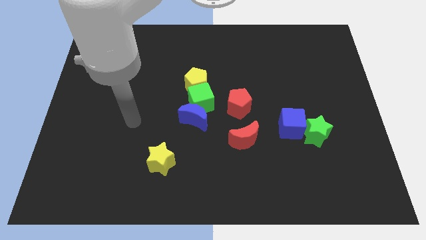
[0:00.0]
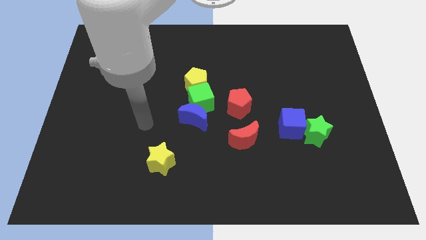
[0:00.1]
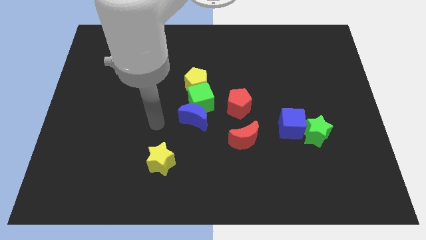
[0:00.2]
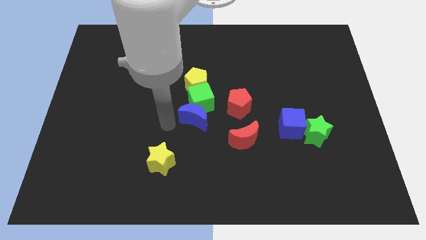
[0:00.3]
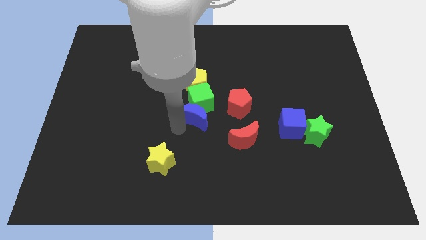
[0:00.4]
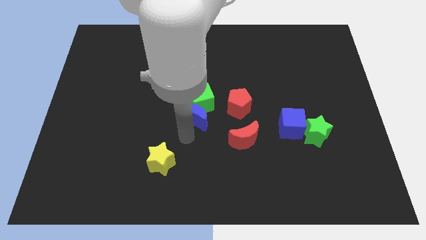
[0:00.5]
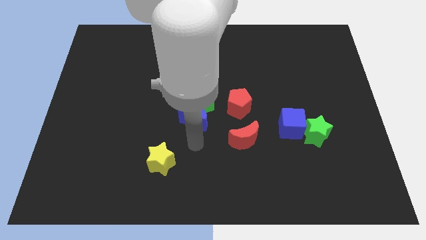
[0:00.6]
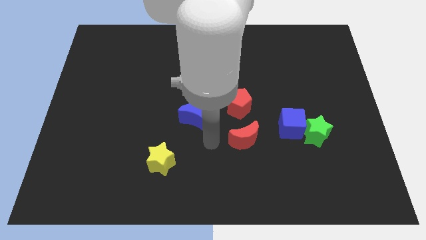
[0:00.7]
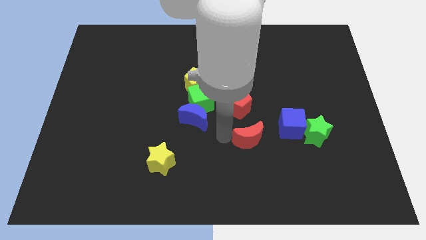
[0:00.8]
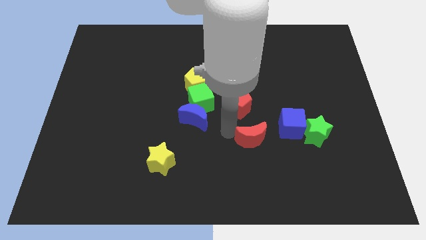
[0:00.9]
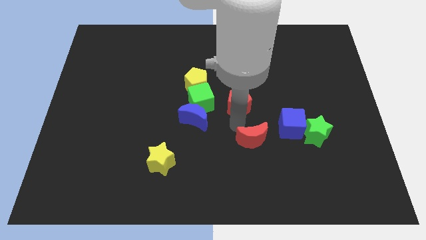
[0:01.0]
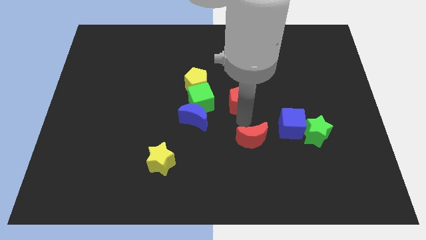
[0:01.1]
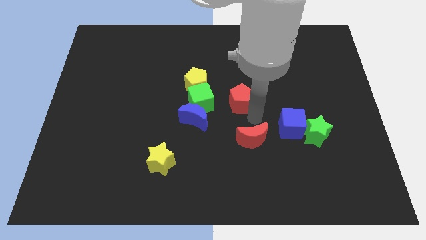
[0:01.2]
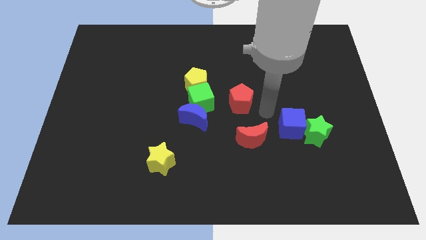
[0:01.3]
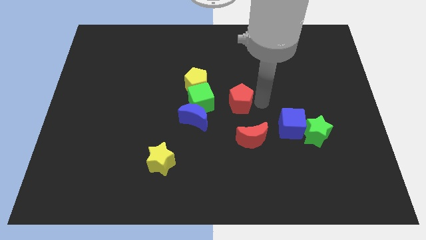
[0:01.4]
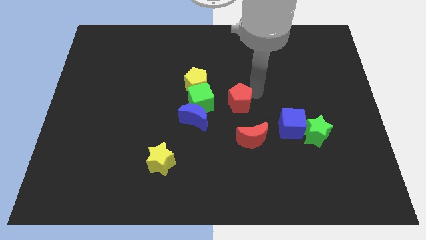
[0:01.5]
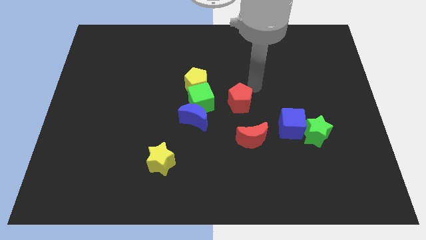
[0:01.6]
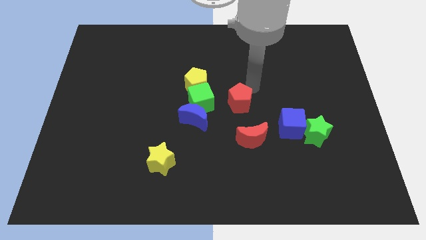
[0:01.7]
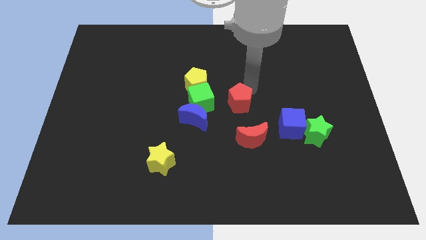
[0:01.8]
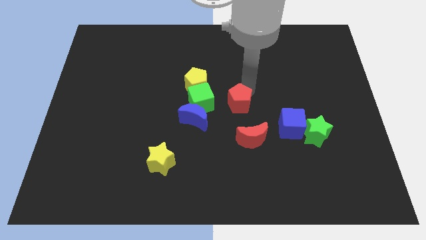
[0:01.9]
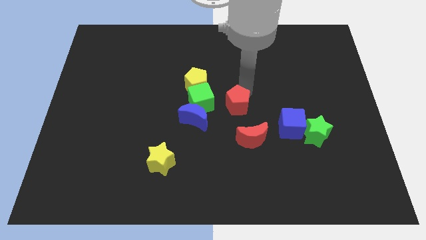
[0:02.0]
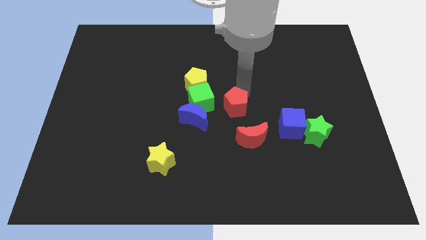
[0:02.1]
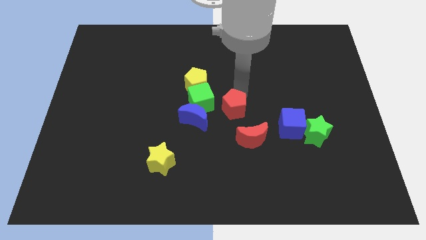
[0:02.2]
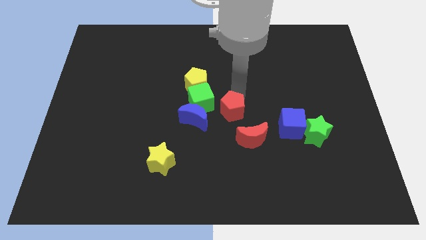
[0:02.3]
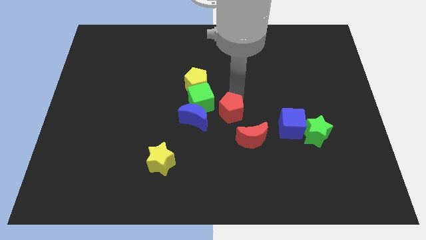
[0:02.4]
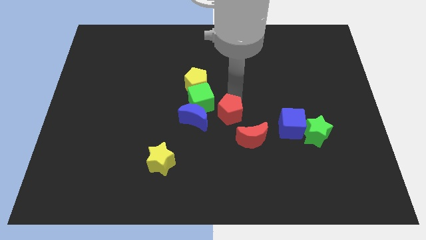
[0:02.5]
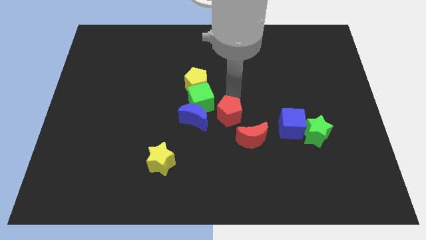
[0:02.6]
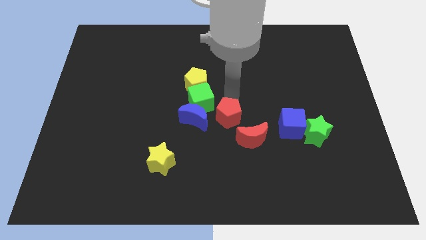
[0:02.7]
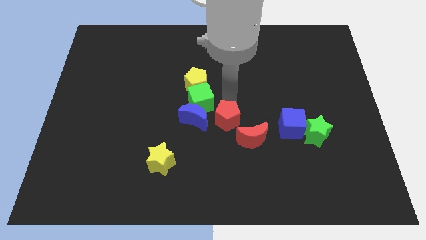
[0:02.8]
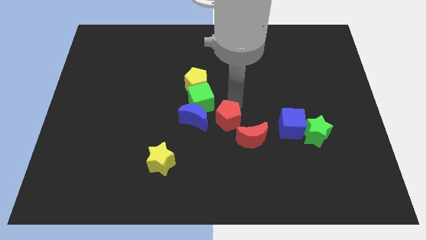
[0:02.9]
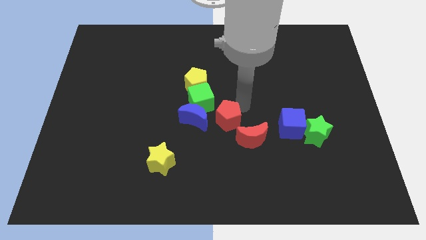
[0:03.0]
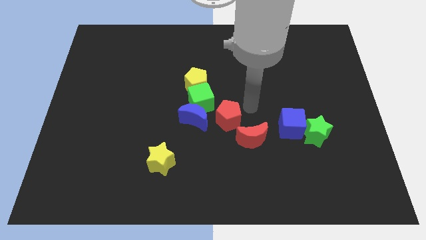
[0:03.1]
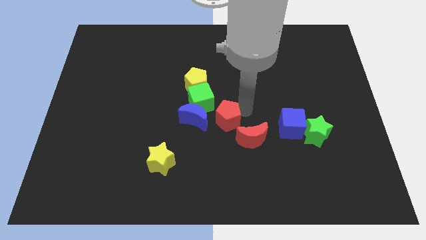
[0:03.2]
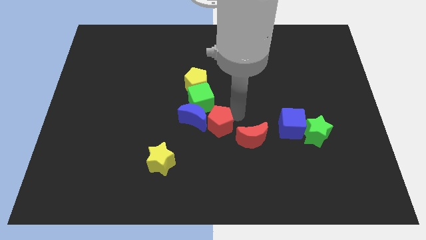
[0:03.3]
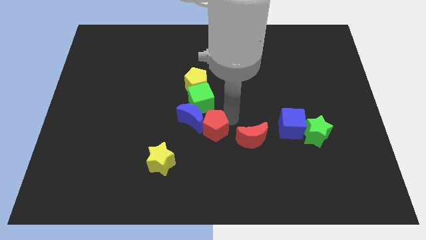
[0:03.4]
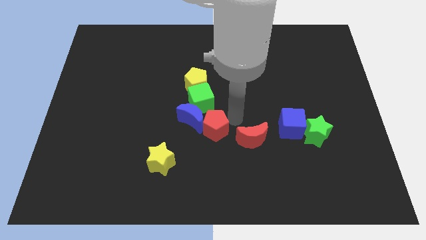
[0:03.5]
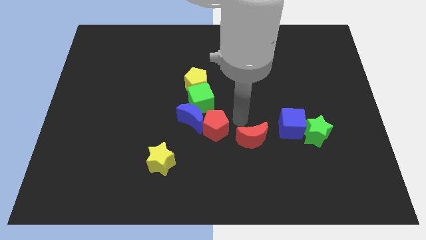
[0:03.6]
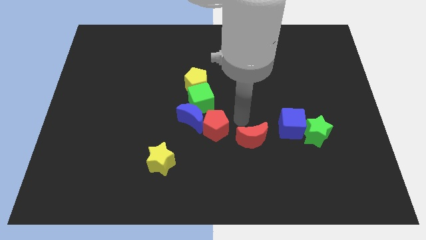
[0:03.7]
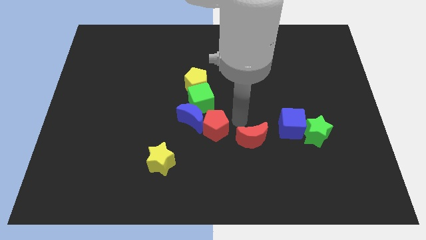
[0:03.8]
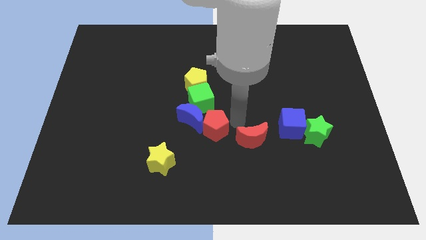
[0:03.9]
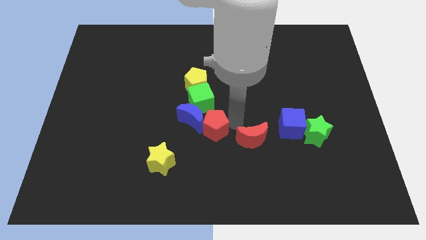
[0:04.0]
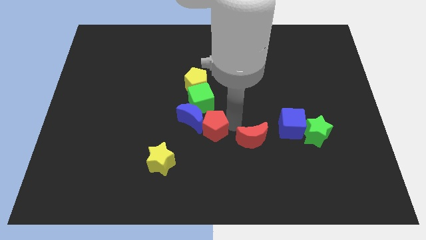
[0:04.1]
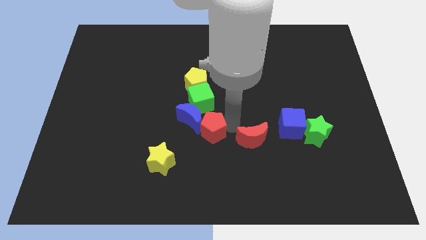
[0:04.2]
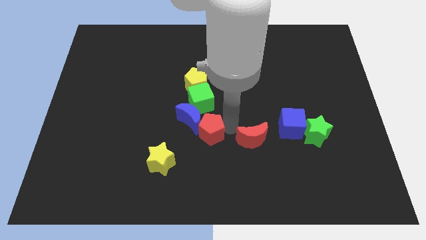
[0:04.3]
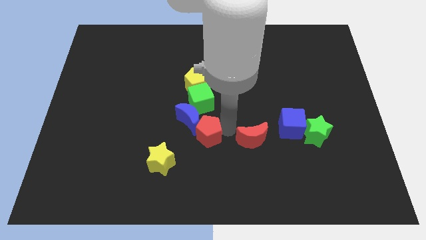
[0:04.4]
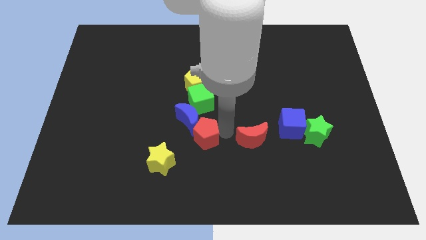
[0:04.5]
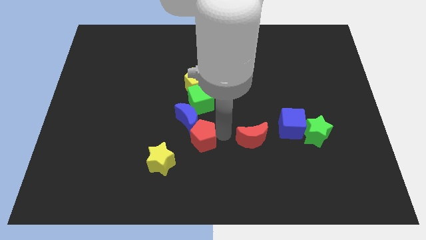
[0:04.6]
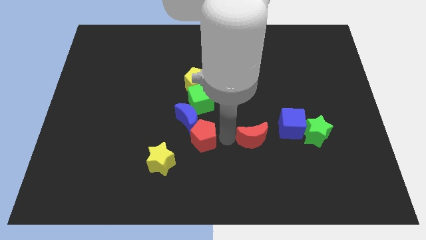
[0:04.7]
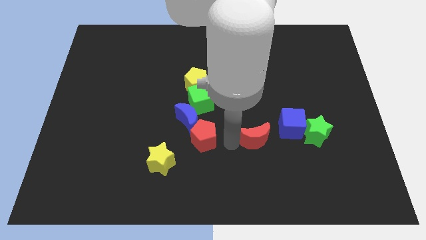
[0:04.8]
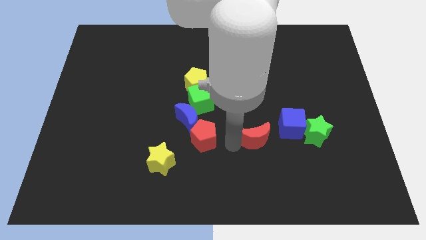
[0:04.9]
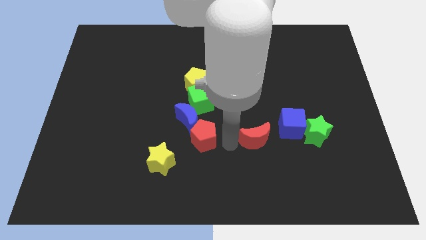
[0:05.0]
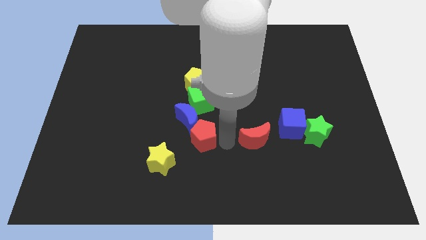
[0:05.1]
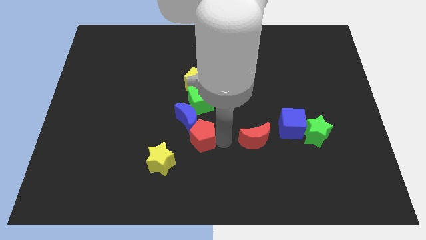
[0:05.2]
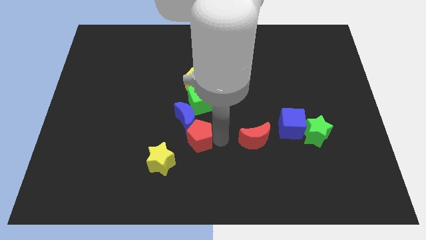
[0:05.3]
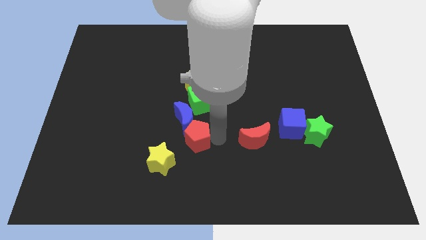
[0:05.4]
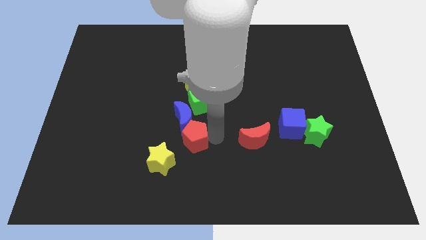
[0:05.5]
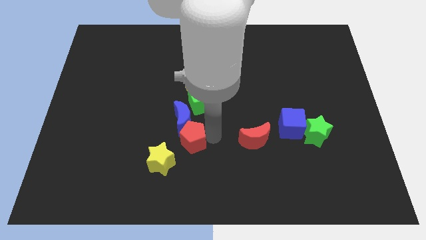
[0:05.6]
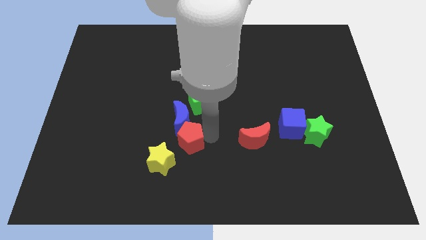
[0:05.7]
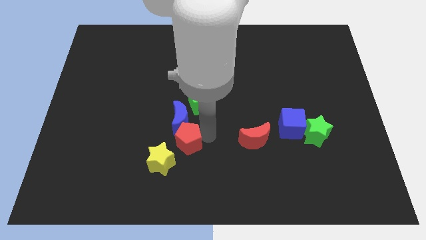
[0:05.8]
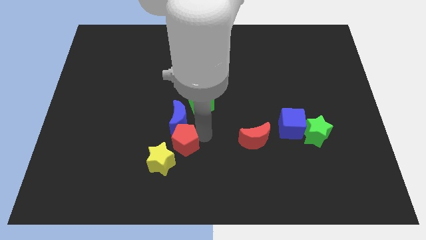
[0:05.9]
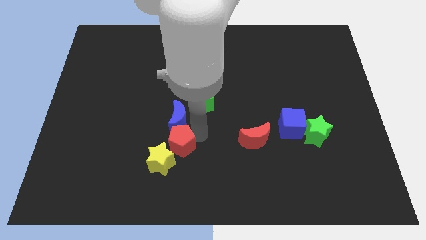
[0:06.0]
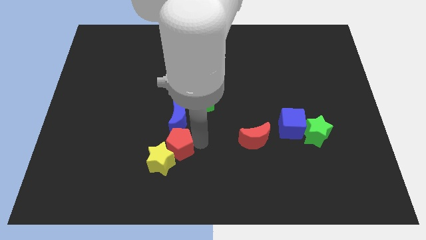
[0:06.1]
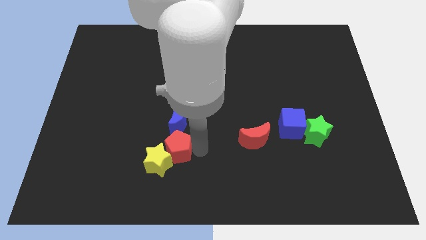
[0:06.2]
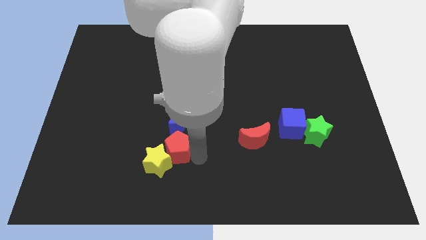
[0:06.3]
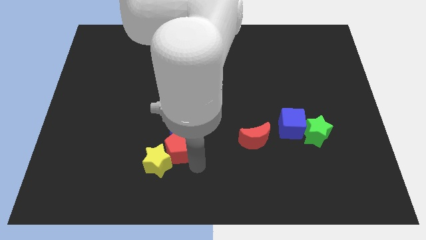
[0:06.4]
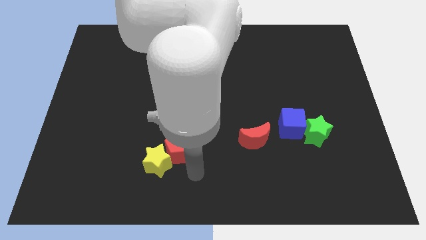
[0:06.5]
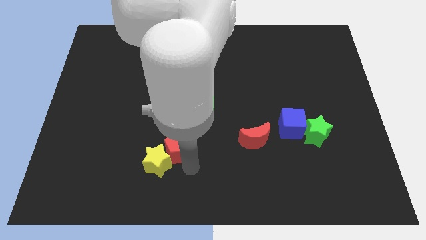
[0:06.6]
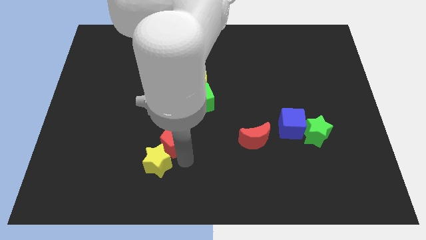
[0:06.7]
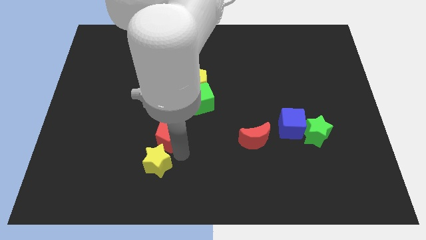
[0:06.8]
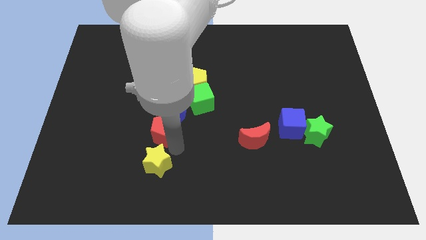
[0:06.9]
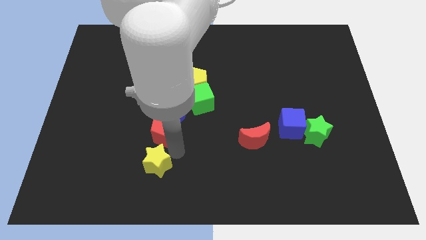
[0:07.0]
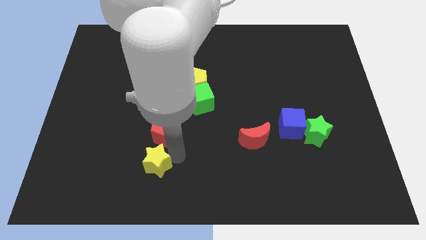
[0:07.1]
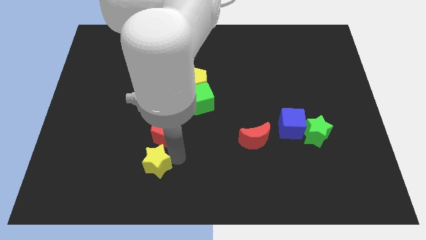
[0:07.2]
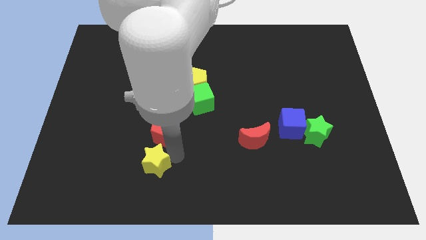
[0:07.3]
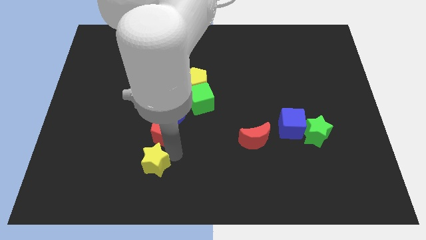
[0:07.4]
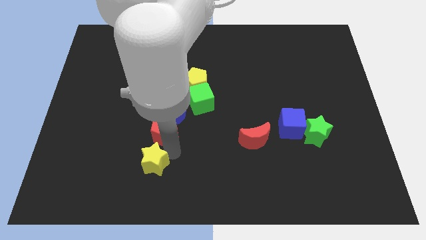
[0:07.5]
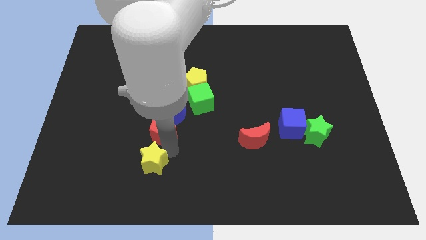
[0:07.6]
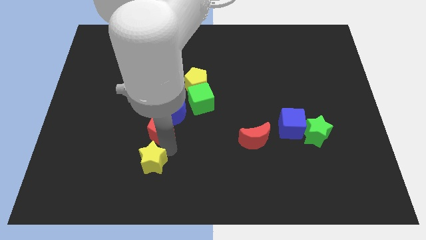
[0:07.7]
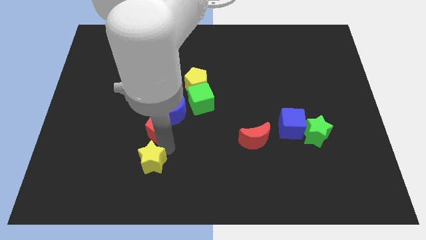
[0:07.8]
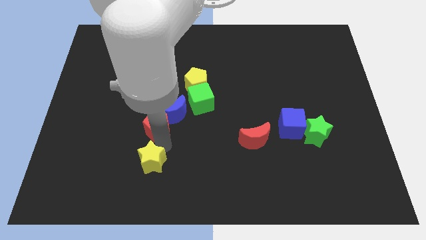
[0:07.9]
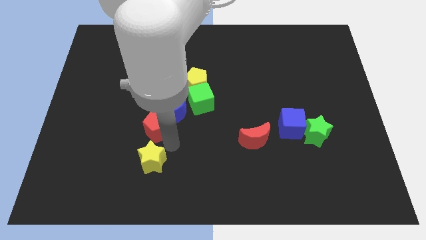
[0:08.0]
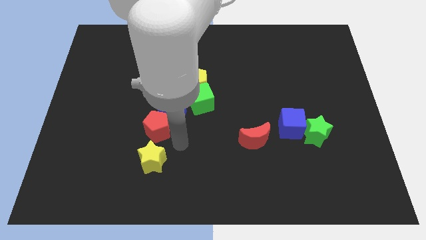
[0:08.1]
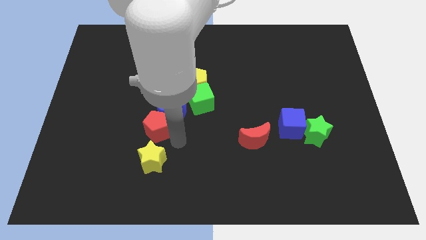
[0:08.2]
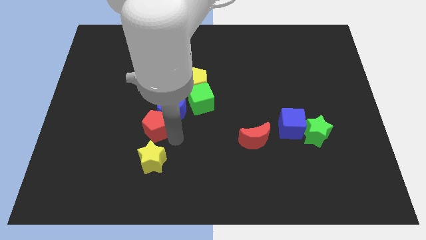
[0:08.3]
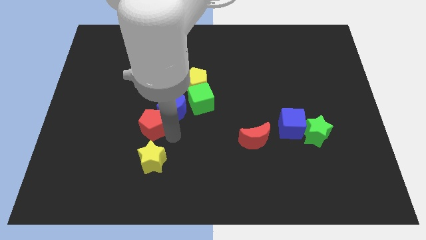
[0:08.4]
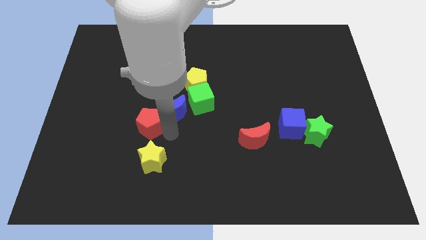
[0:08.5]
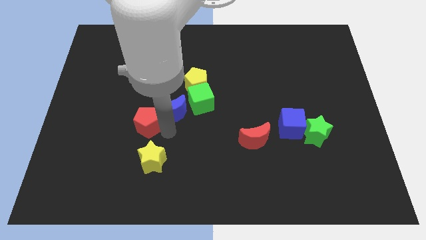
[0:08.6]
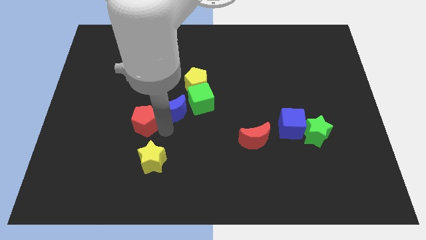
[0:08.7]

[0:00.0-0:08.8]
push the red pentagon to the left
